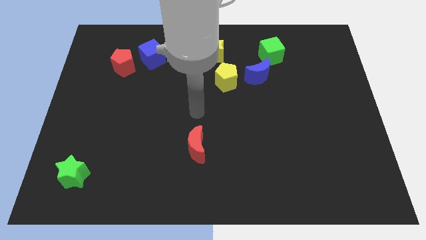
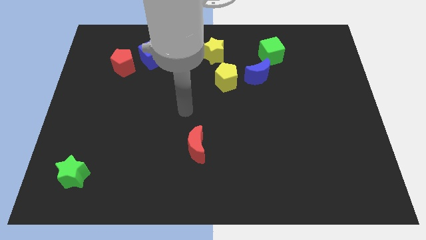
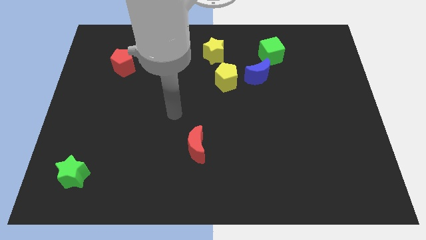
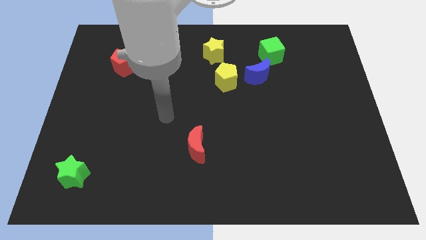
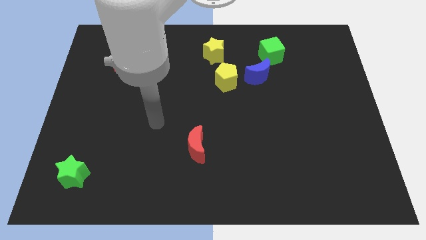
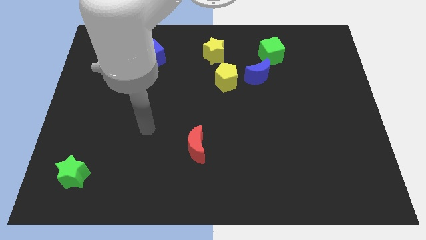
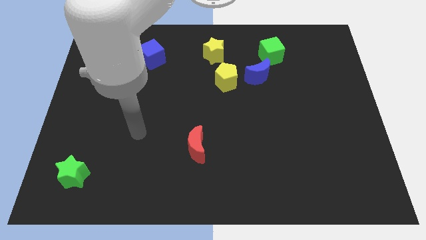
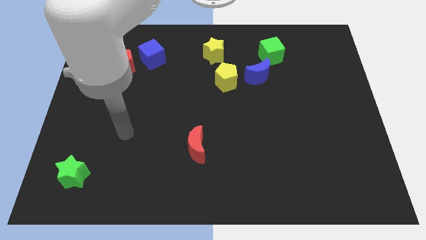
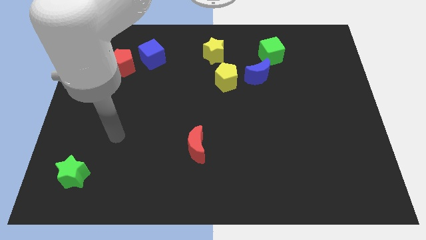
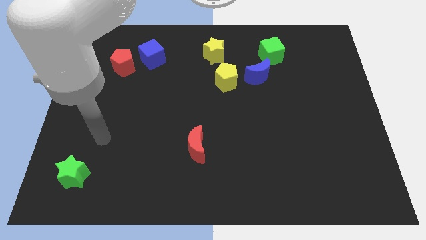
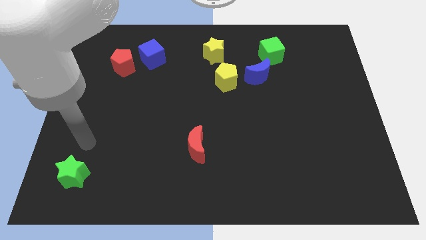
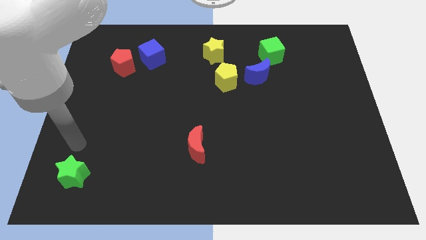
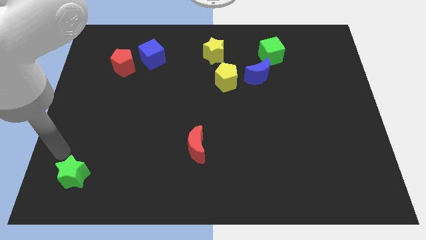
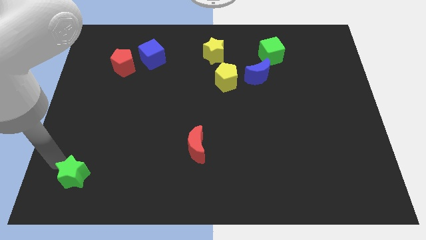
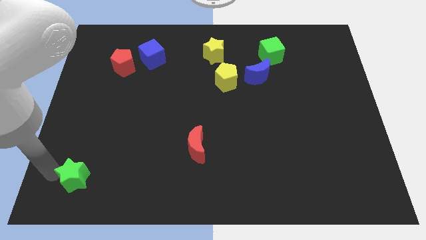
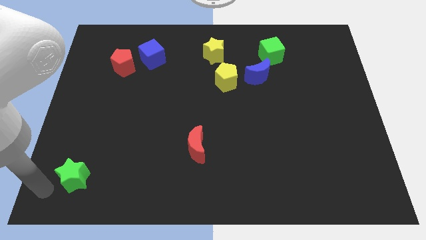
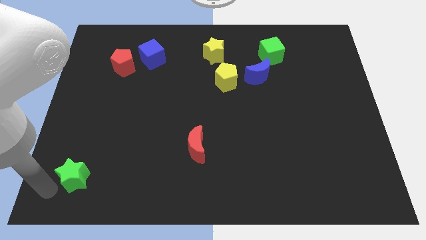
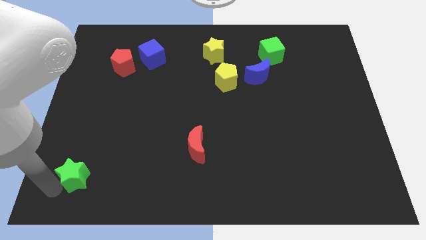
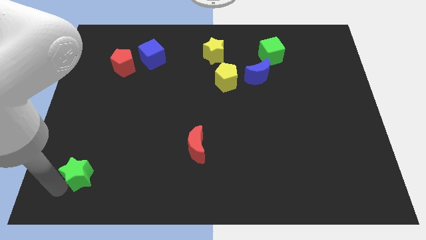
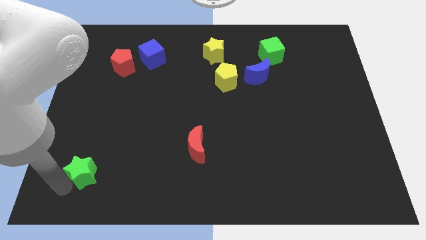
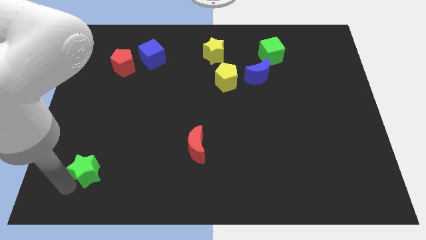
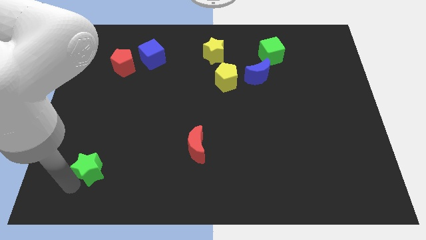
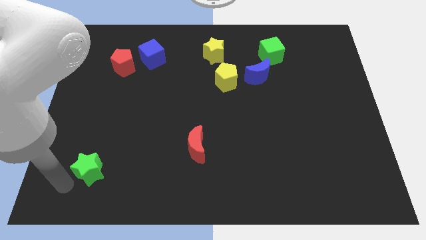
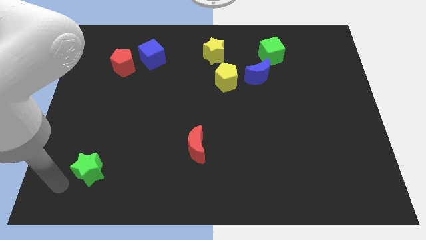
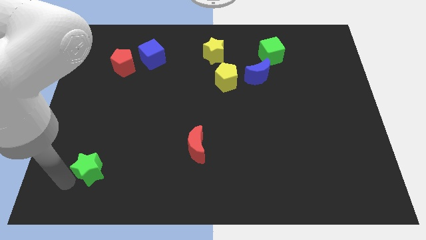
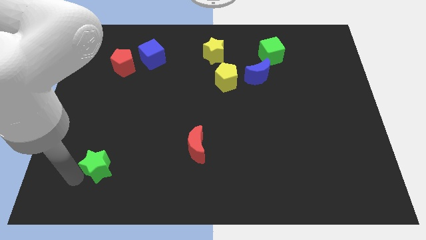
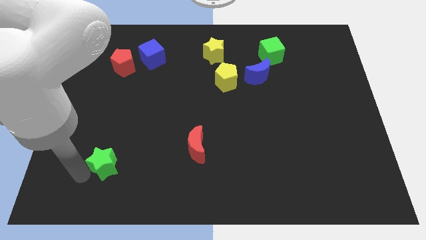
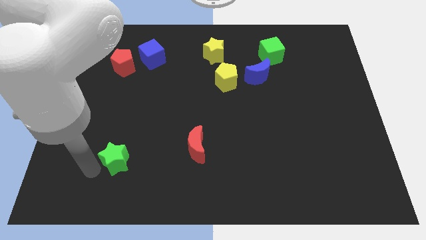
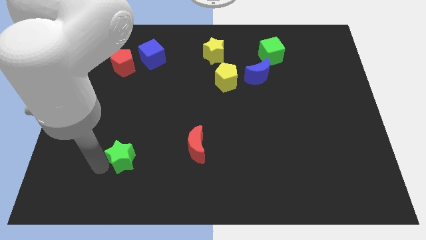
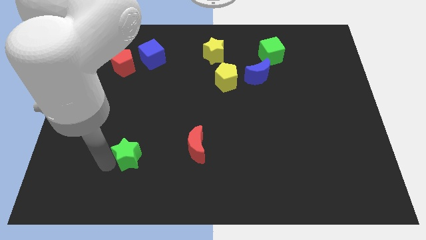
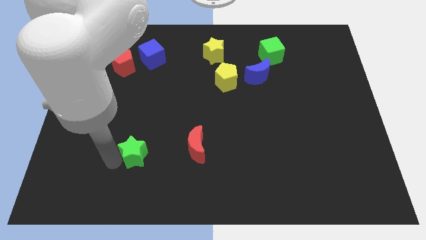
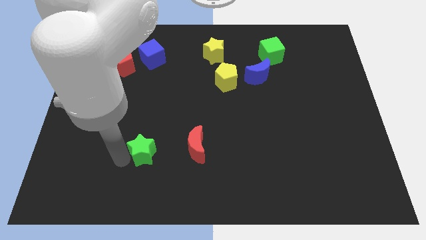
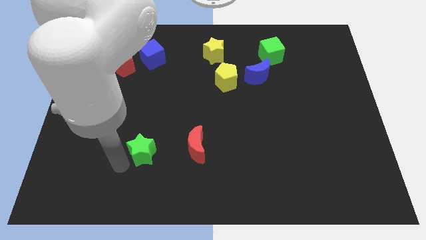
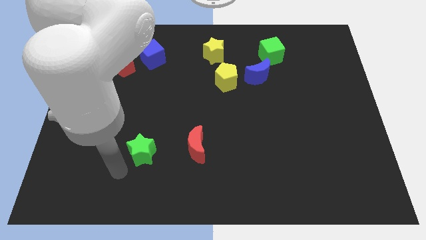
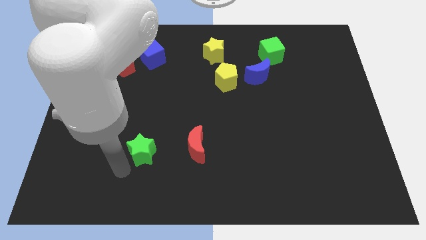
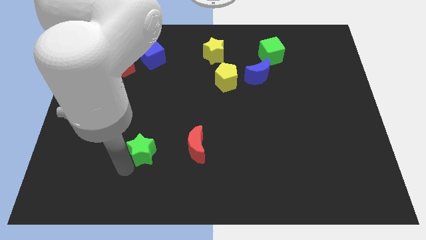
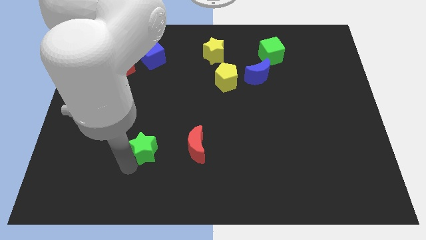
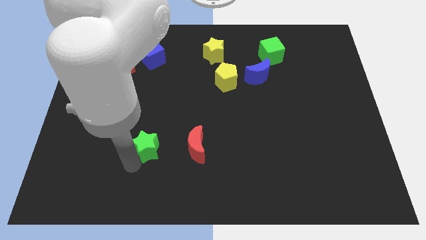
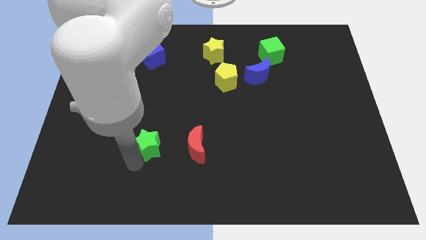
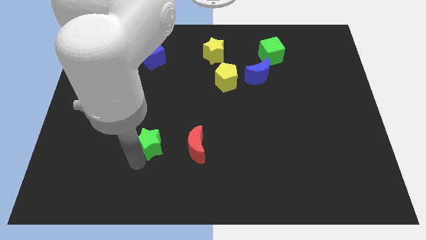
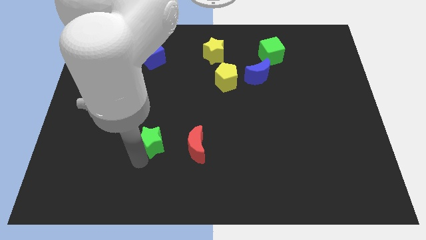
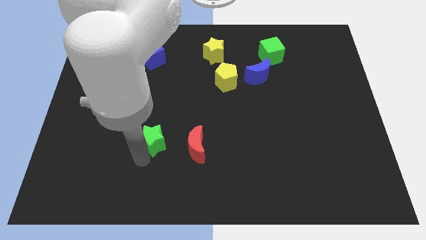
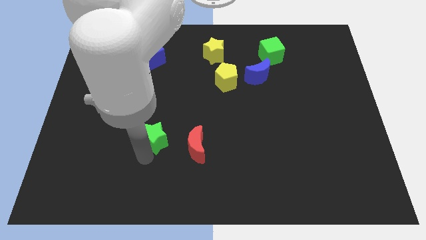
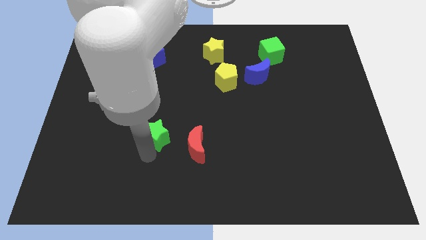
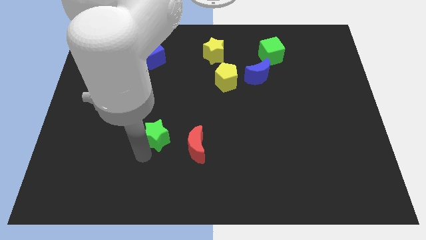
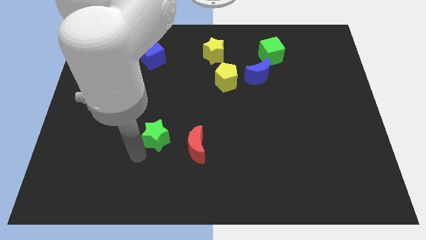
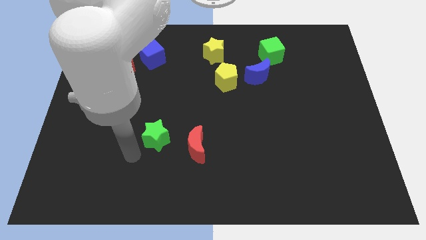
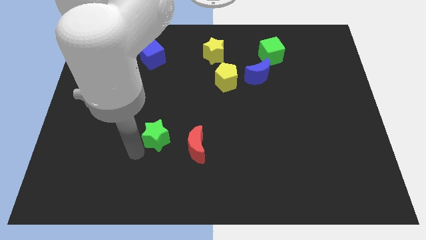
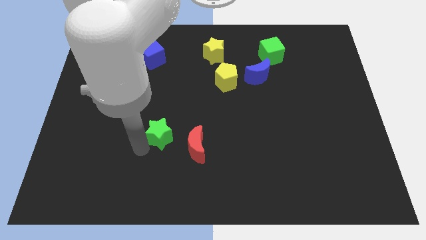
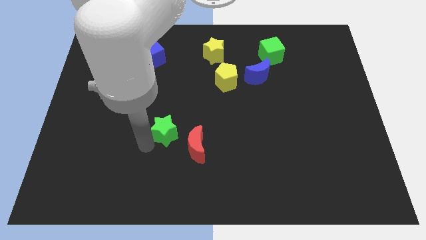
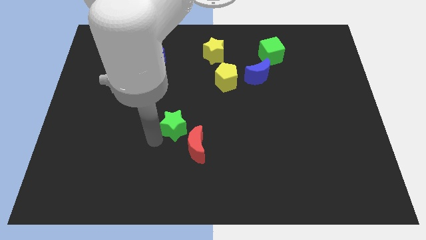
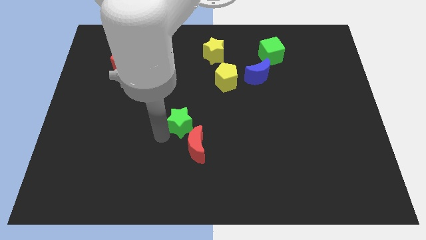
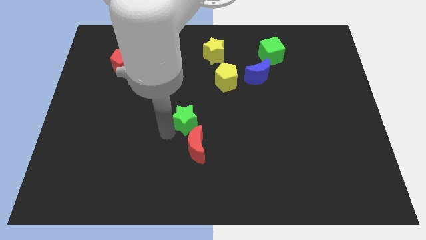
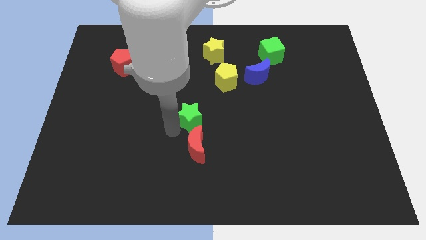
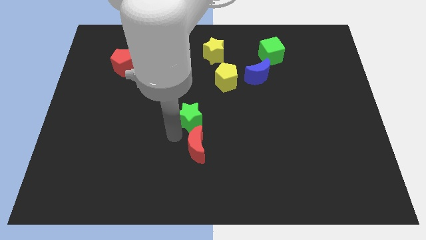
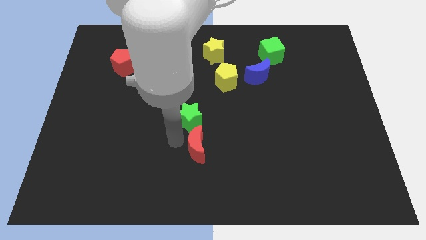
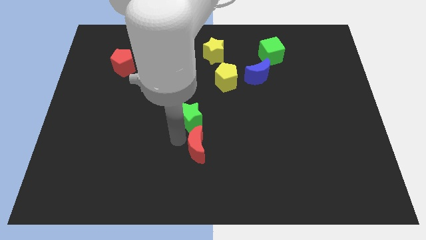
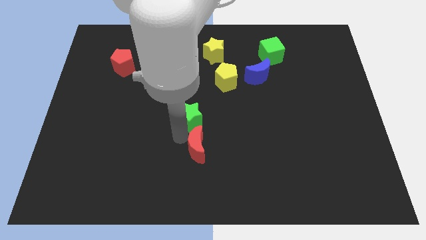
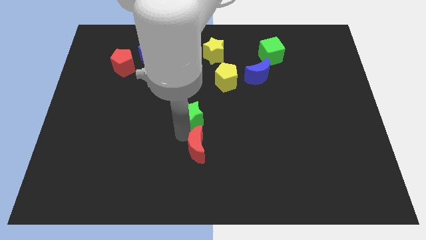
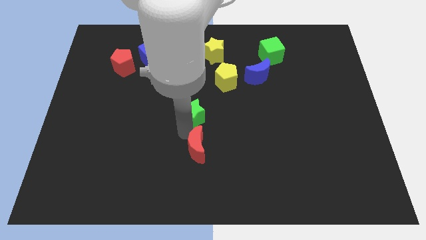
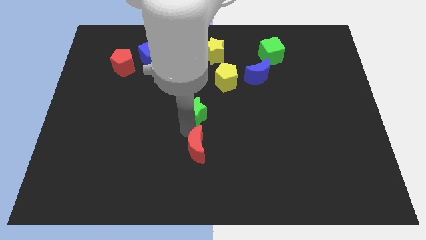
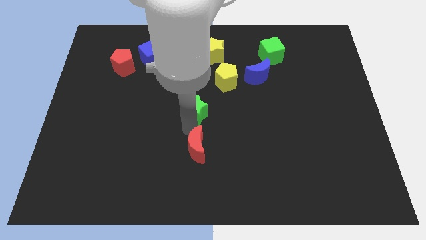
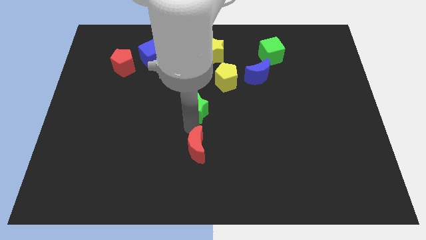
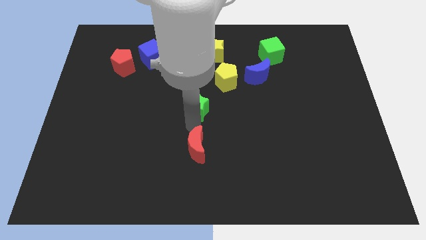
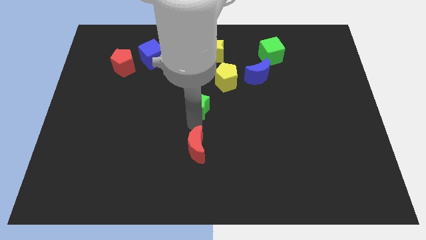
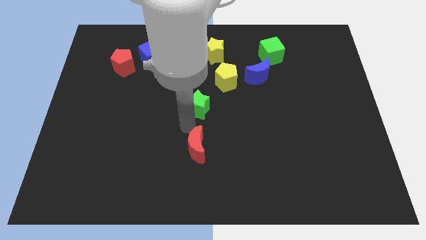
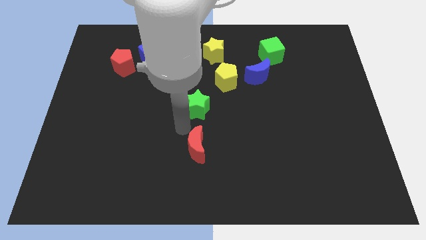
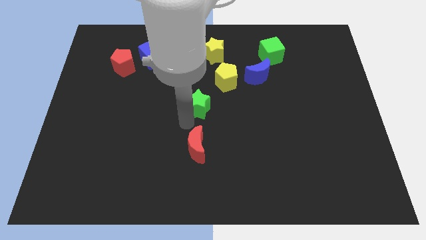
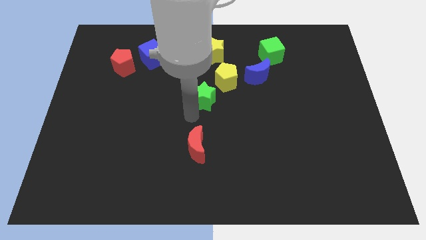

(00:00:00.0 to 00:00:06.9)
put the green star to the bottom side of the yellow star

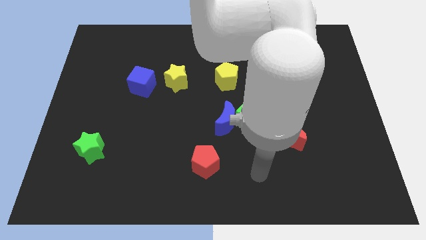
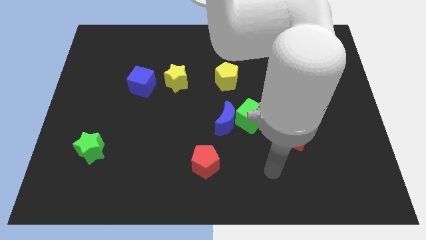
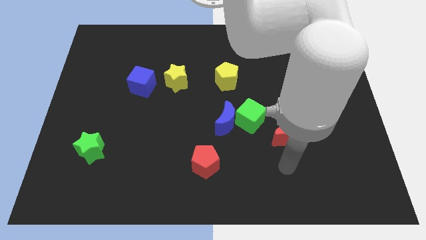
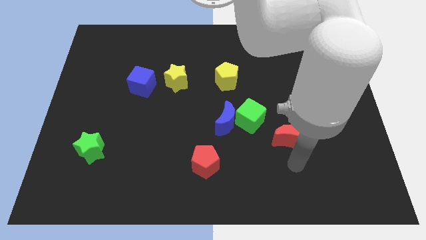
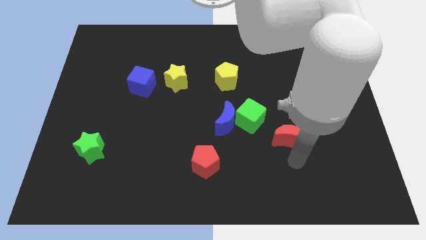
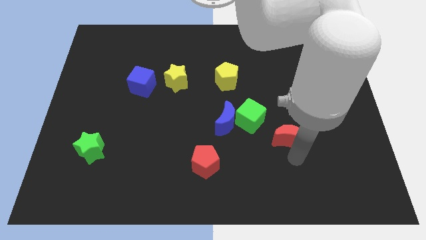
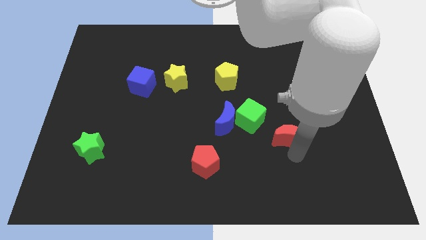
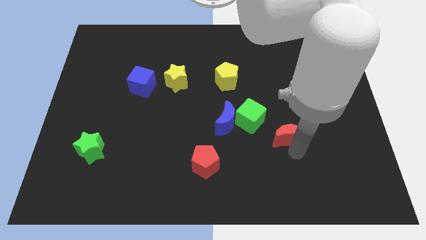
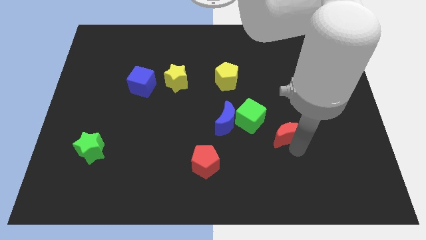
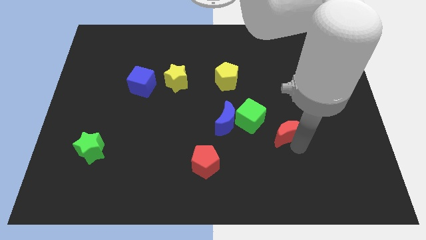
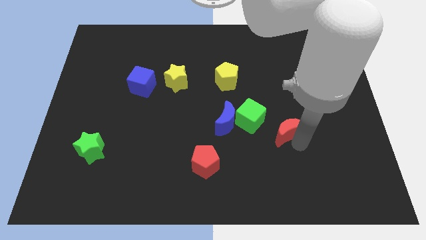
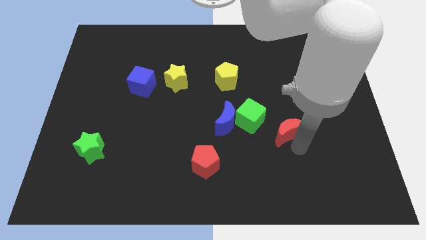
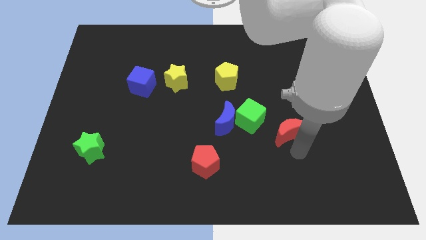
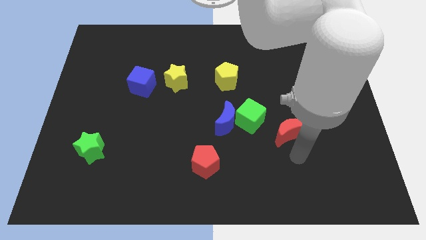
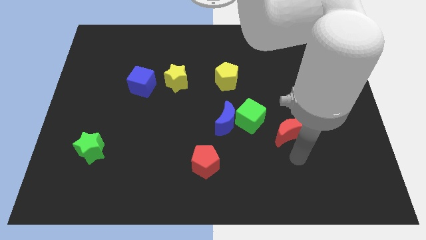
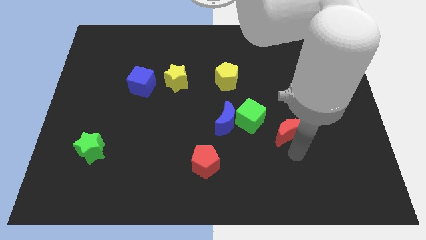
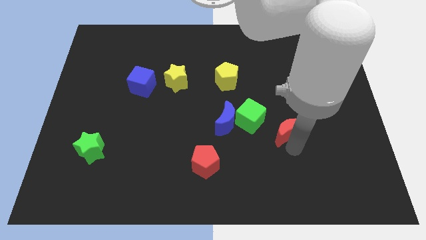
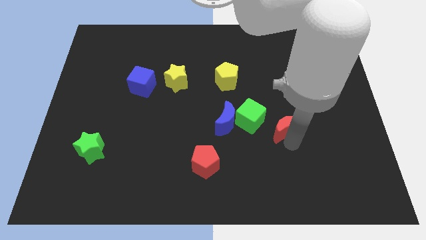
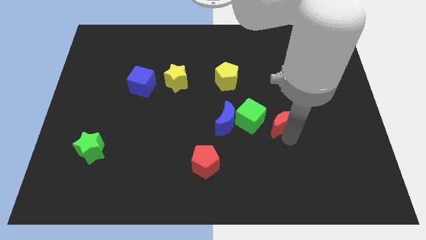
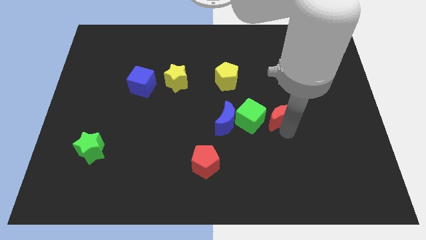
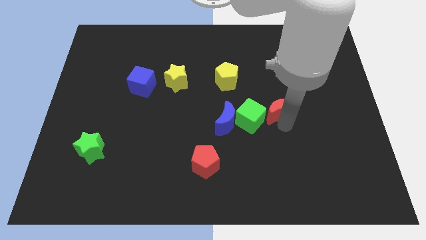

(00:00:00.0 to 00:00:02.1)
put the red moon to the top right side of the green cube
